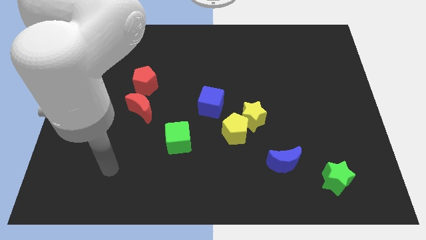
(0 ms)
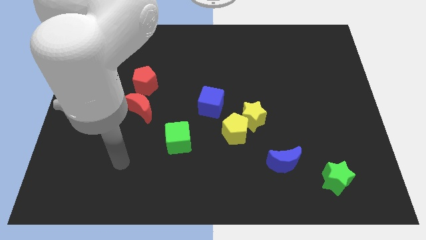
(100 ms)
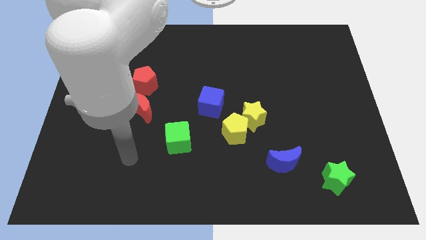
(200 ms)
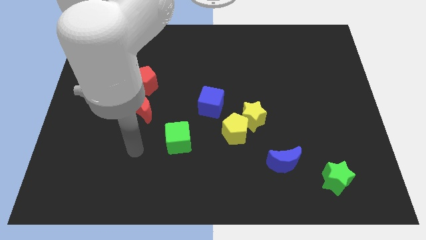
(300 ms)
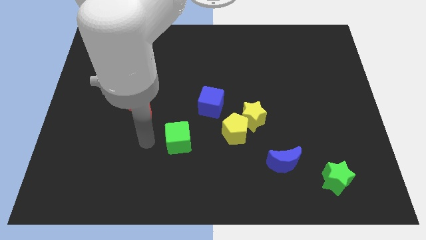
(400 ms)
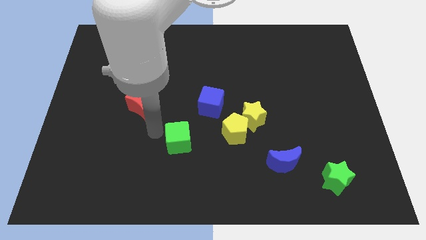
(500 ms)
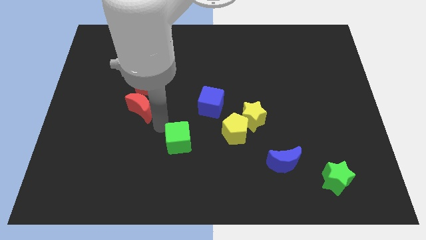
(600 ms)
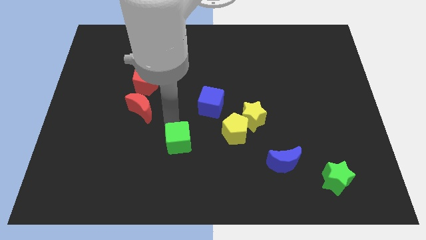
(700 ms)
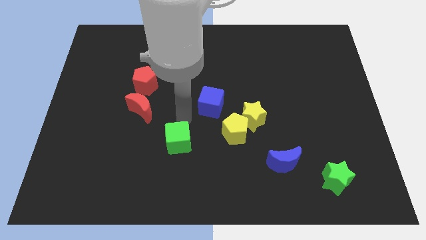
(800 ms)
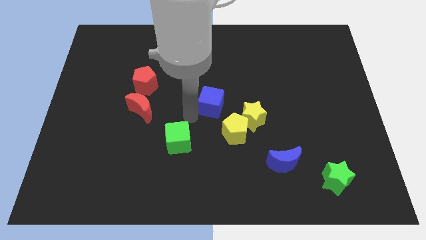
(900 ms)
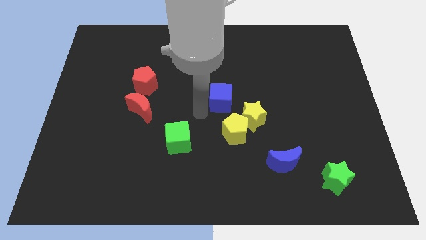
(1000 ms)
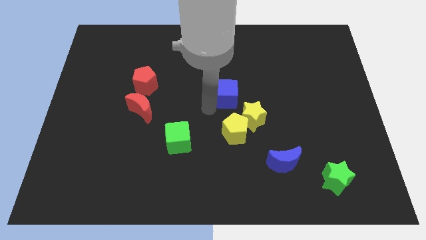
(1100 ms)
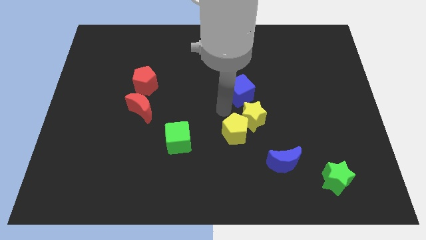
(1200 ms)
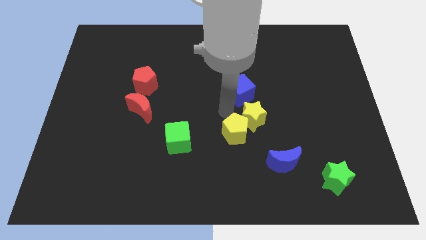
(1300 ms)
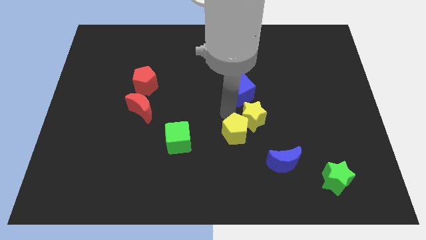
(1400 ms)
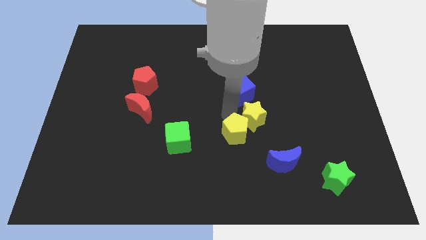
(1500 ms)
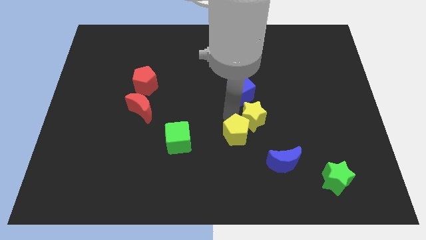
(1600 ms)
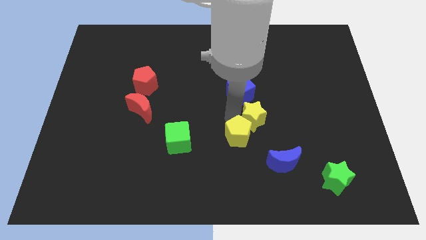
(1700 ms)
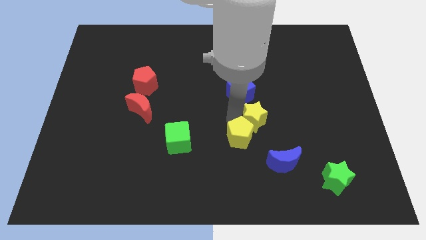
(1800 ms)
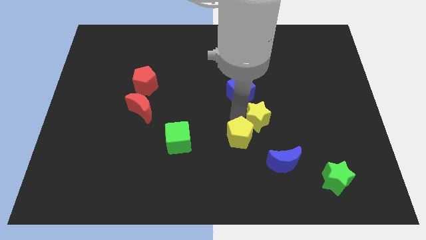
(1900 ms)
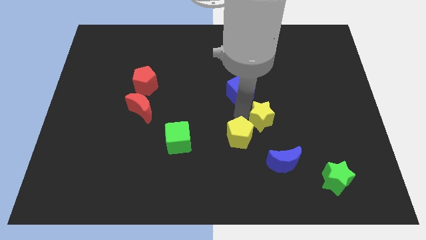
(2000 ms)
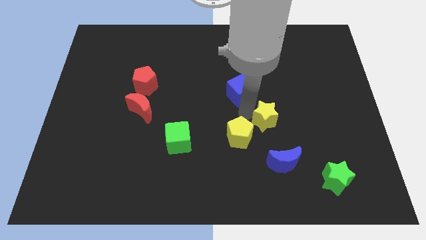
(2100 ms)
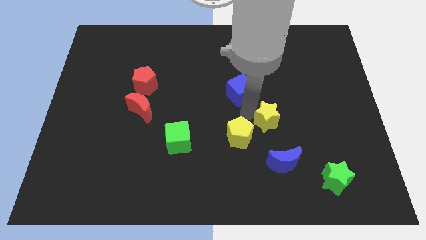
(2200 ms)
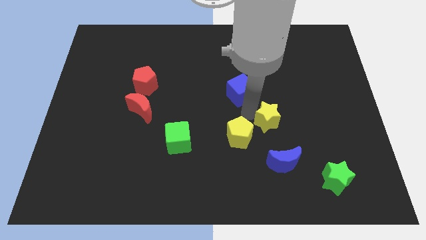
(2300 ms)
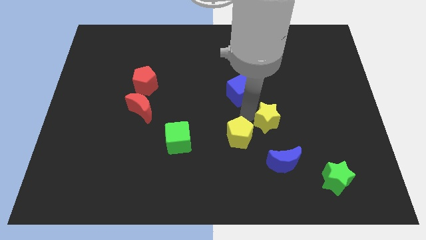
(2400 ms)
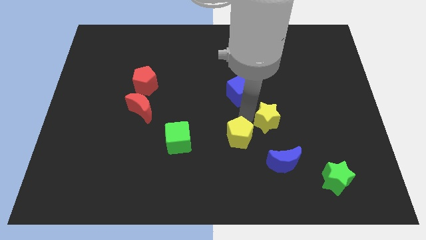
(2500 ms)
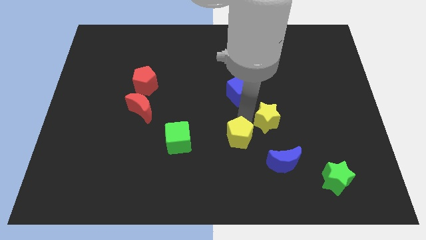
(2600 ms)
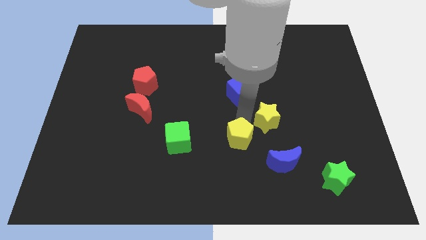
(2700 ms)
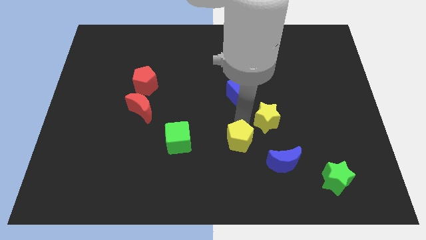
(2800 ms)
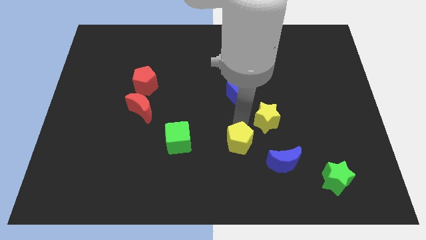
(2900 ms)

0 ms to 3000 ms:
move the yellow pentagon away from the yellow star and blue cube

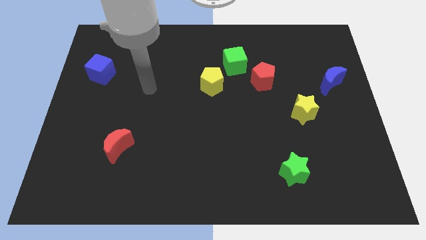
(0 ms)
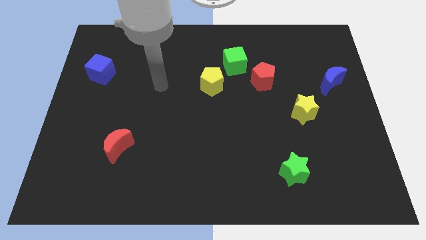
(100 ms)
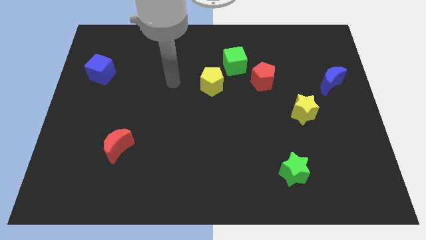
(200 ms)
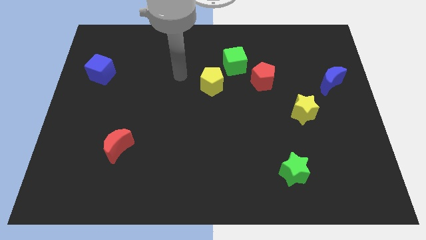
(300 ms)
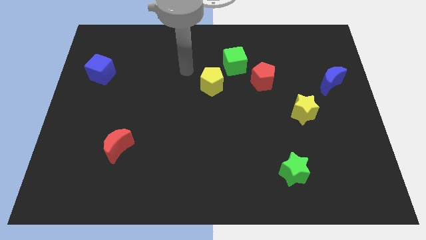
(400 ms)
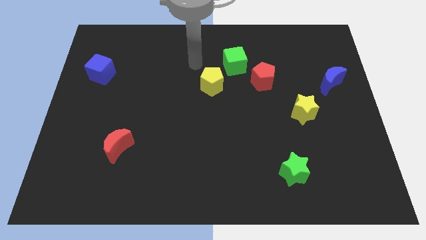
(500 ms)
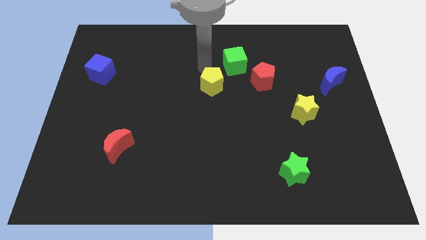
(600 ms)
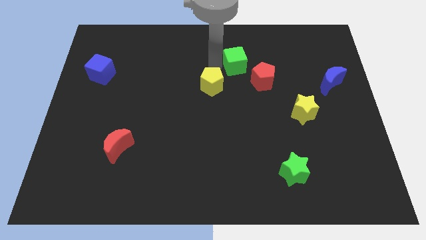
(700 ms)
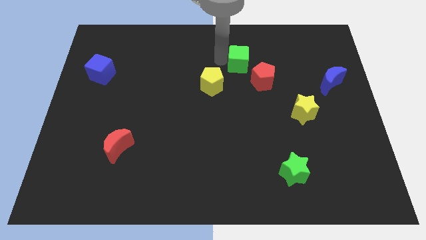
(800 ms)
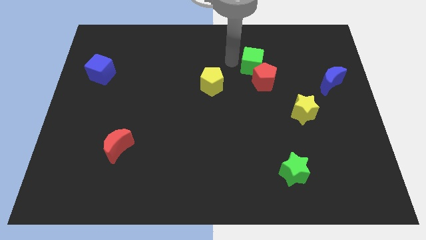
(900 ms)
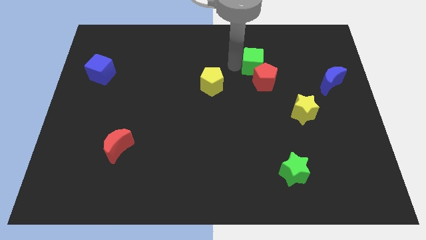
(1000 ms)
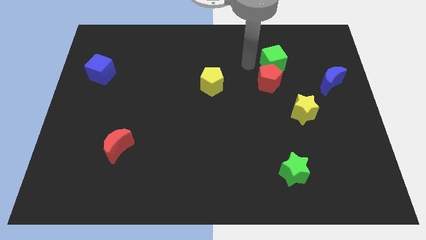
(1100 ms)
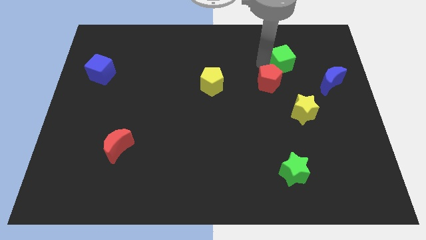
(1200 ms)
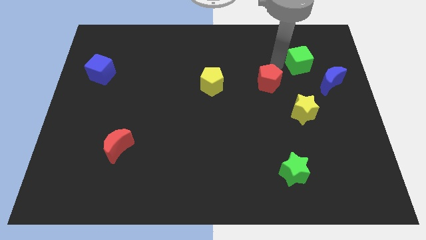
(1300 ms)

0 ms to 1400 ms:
separate the red pentagon from the green cube

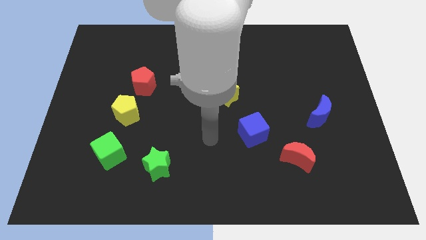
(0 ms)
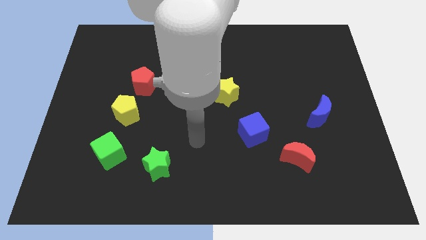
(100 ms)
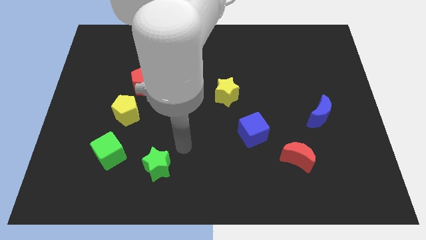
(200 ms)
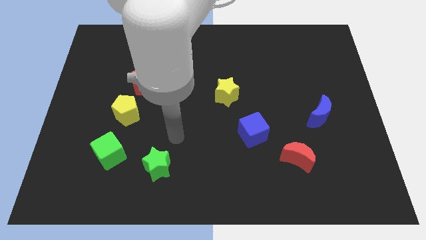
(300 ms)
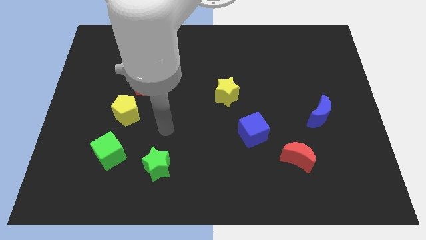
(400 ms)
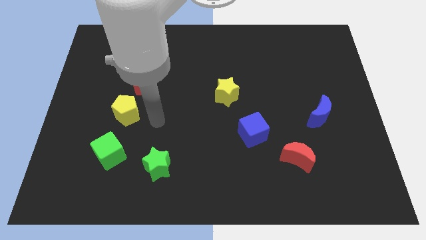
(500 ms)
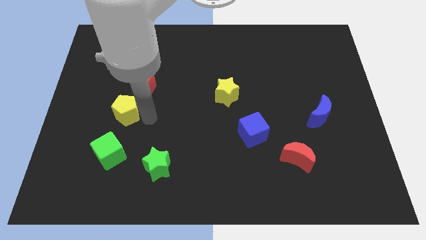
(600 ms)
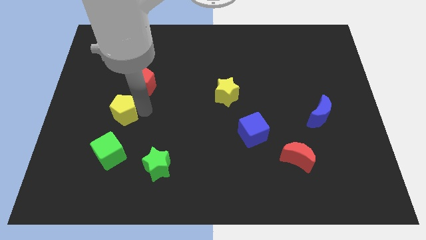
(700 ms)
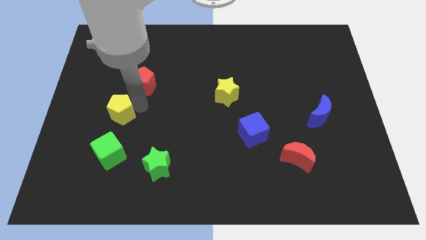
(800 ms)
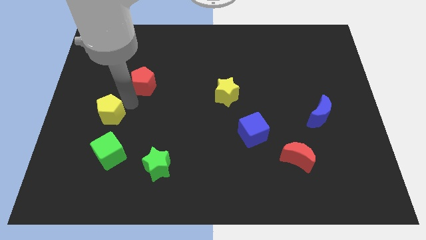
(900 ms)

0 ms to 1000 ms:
separate the red pentagon from the yellow pentagon

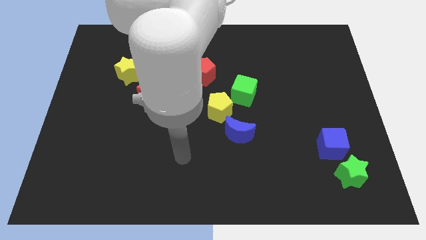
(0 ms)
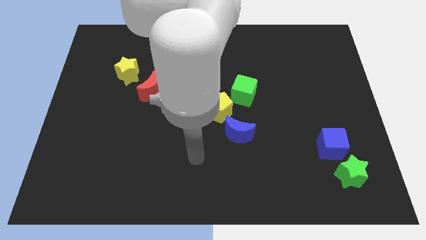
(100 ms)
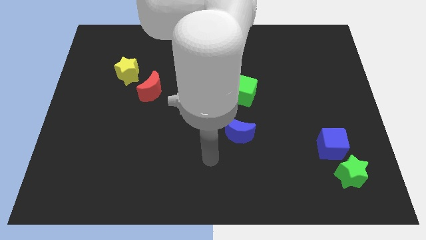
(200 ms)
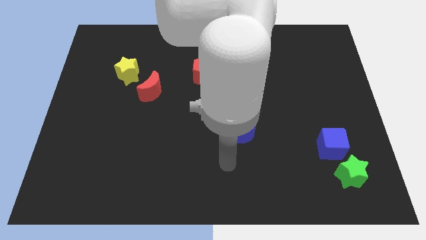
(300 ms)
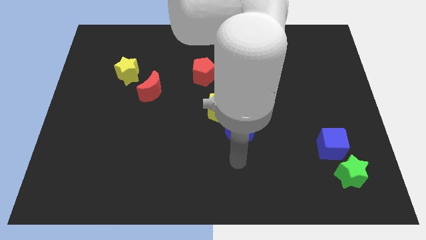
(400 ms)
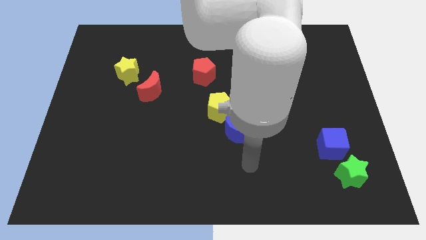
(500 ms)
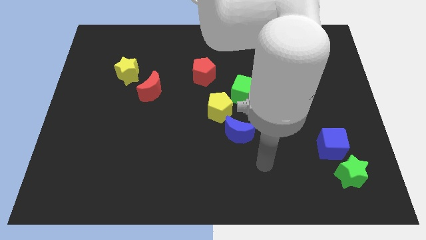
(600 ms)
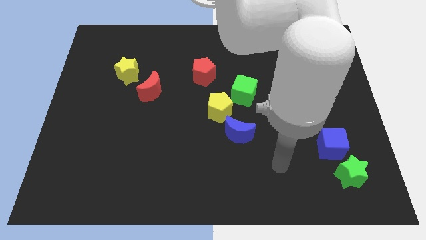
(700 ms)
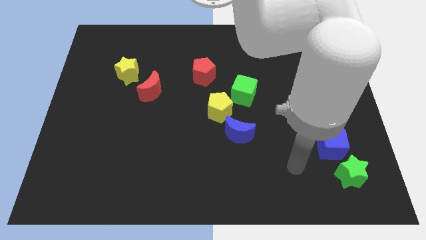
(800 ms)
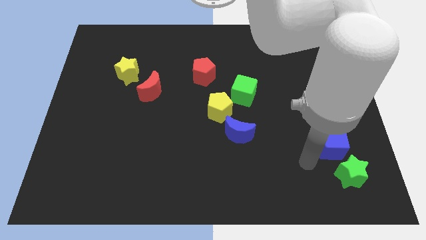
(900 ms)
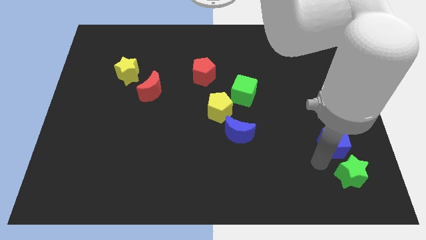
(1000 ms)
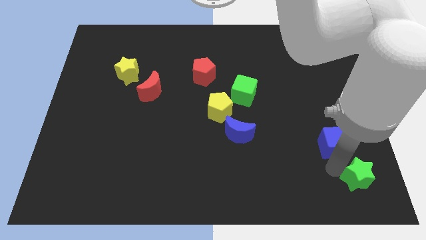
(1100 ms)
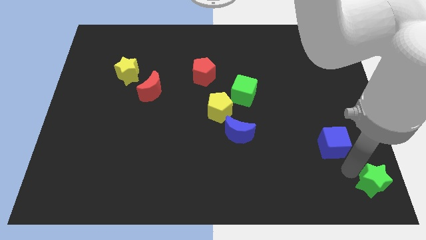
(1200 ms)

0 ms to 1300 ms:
move the blue cube away from the green star

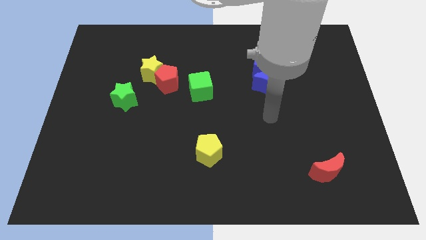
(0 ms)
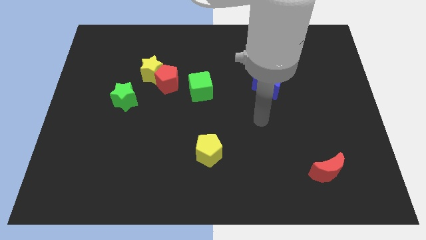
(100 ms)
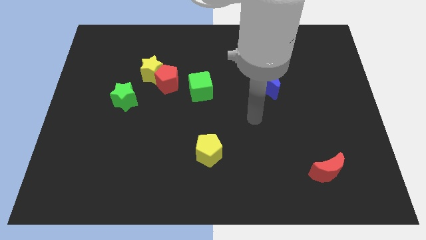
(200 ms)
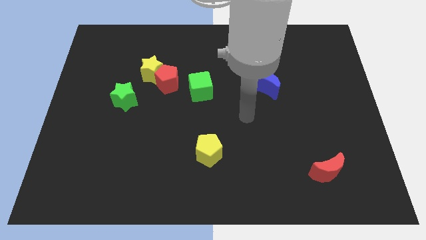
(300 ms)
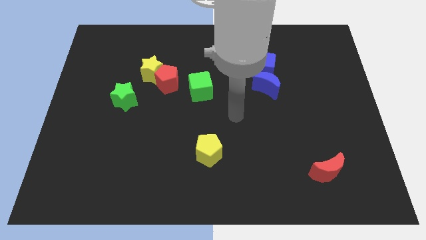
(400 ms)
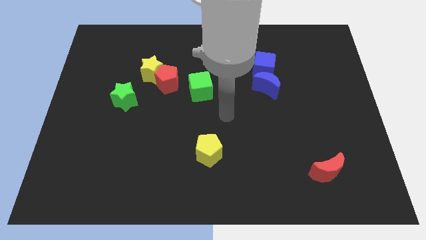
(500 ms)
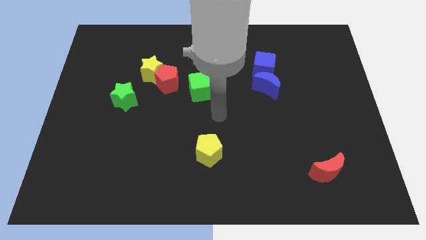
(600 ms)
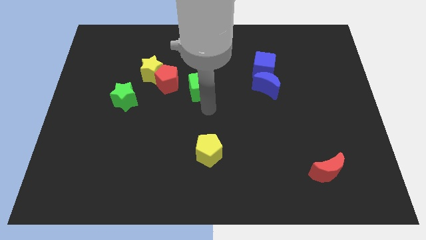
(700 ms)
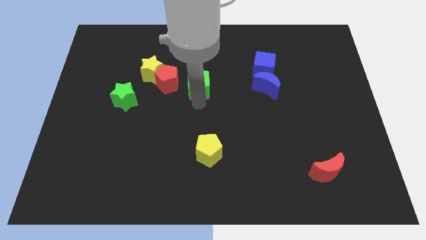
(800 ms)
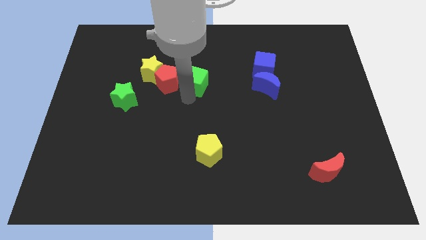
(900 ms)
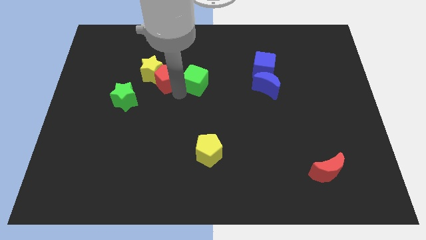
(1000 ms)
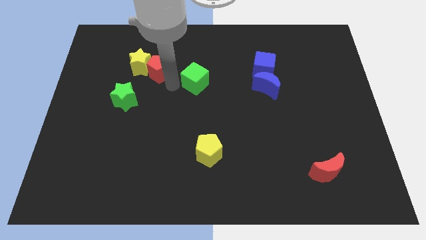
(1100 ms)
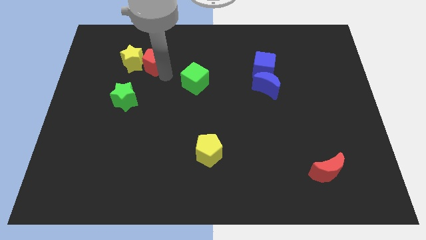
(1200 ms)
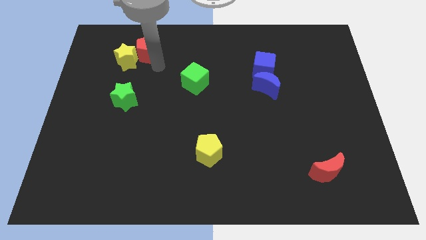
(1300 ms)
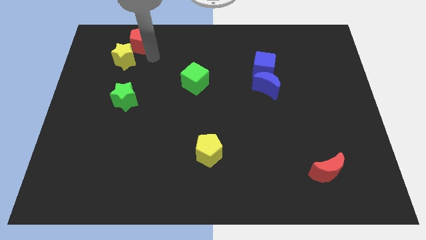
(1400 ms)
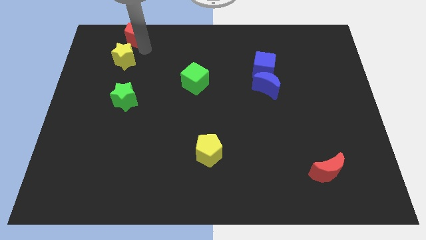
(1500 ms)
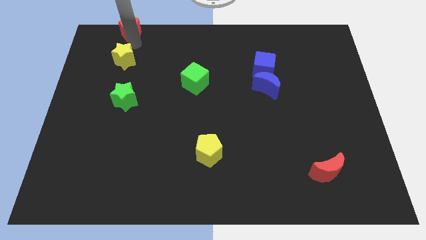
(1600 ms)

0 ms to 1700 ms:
separate the yellow star from the red pentagon

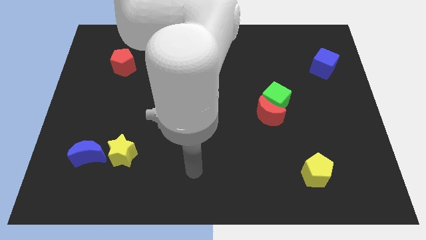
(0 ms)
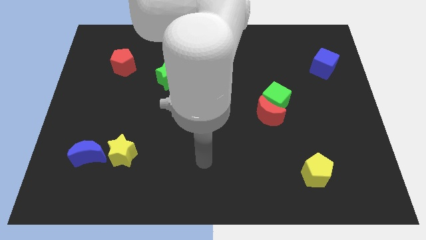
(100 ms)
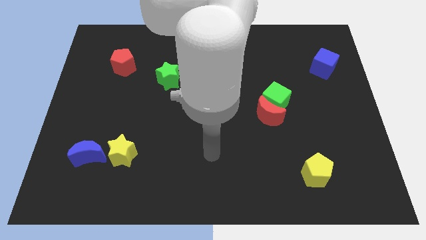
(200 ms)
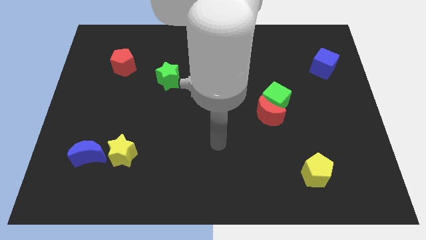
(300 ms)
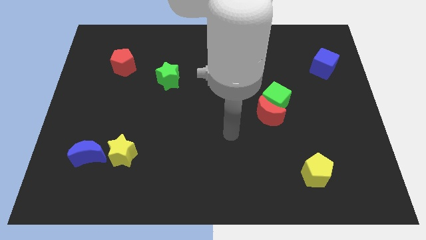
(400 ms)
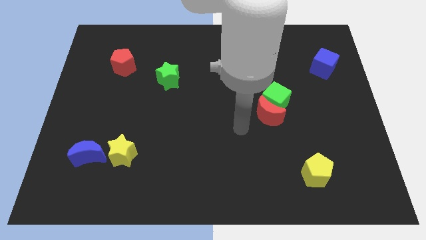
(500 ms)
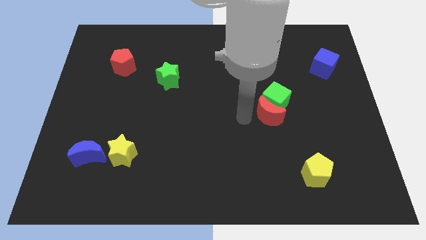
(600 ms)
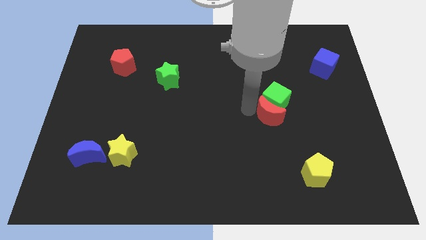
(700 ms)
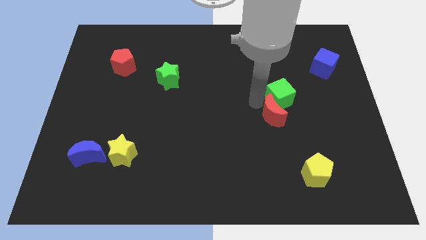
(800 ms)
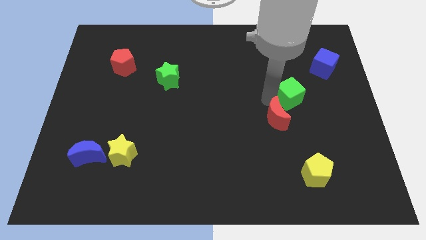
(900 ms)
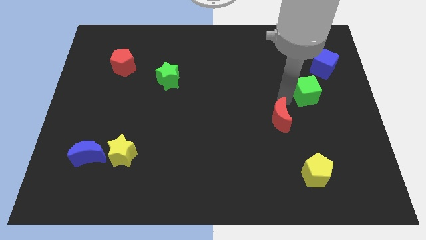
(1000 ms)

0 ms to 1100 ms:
pull the red moon apart from the green cube
